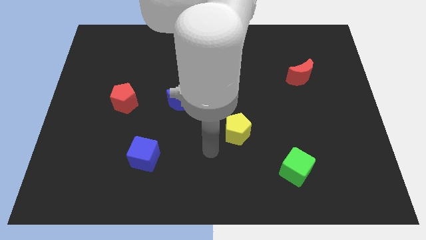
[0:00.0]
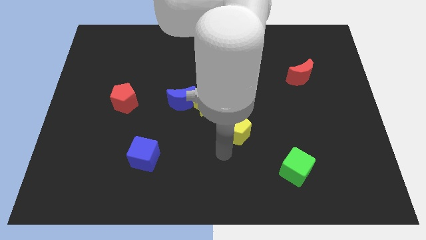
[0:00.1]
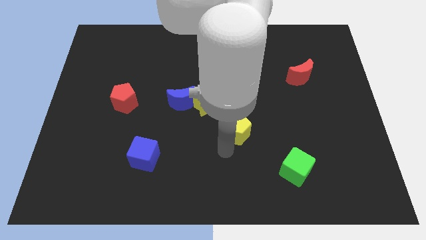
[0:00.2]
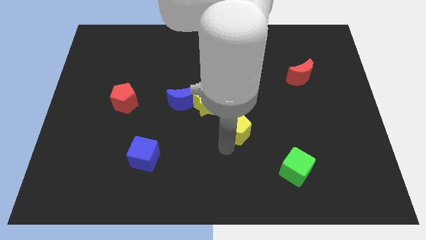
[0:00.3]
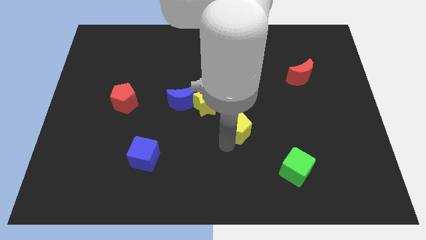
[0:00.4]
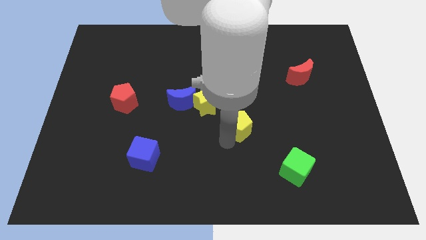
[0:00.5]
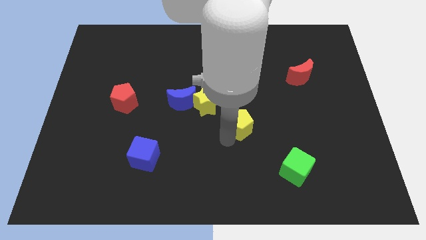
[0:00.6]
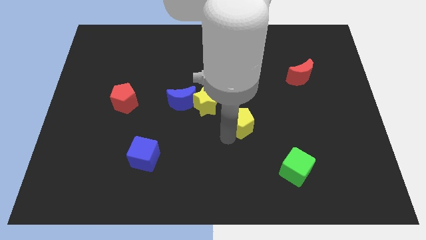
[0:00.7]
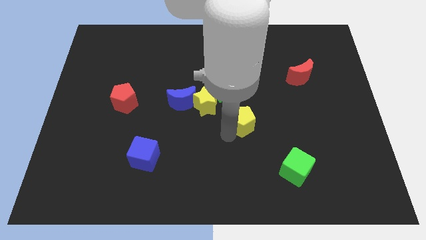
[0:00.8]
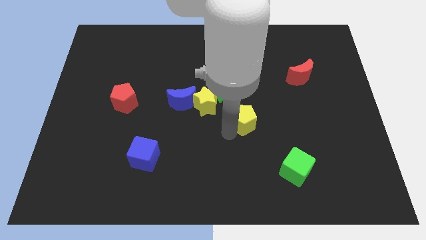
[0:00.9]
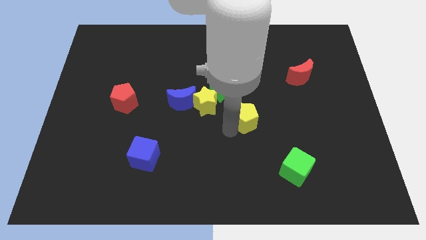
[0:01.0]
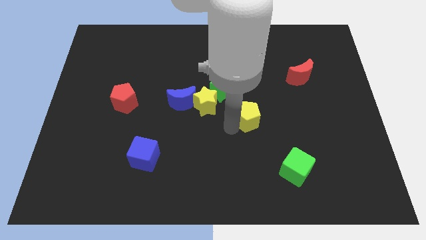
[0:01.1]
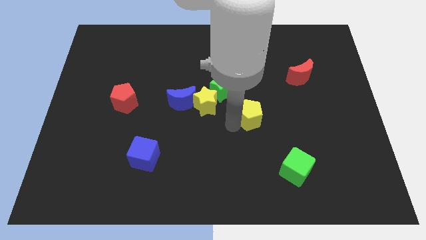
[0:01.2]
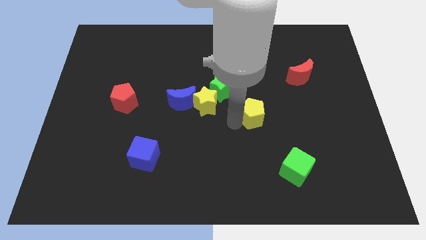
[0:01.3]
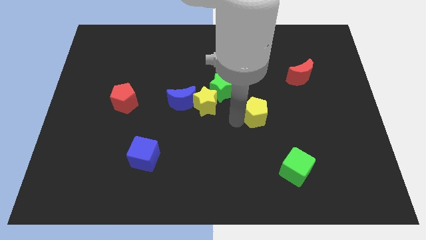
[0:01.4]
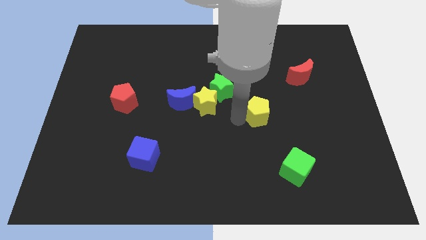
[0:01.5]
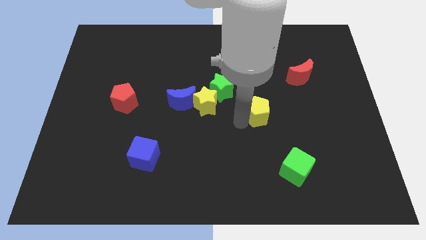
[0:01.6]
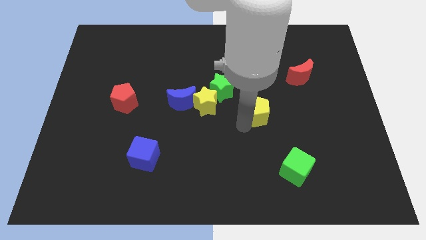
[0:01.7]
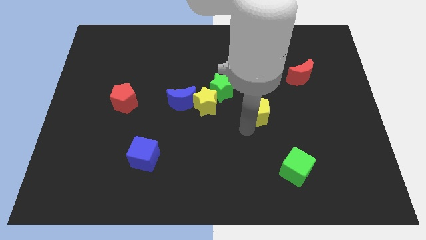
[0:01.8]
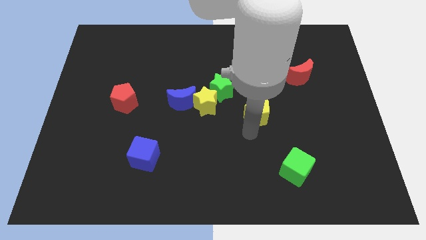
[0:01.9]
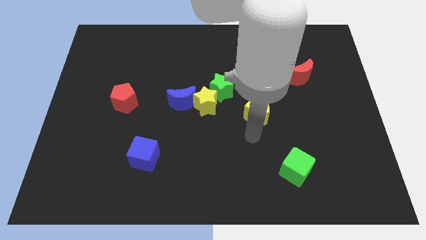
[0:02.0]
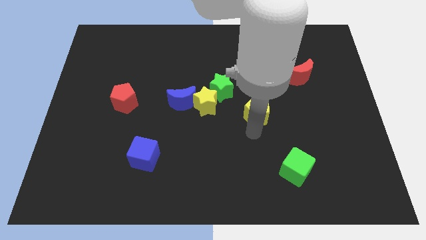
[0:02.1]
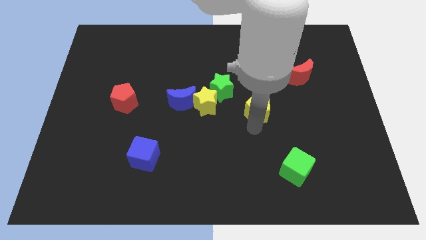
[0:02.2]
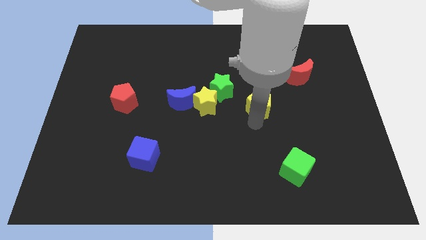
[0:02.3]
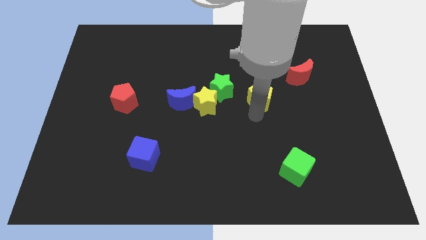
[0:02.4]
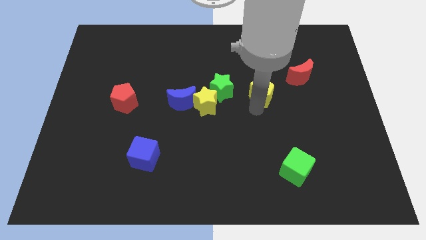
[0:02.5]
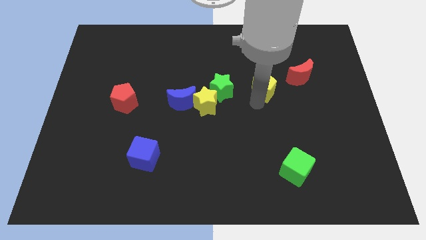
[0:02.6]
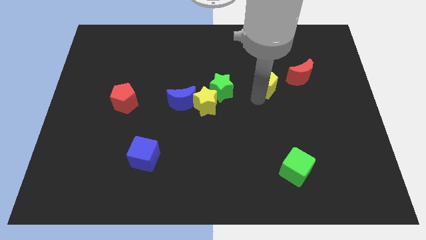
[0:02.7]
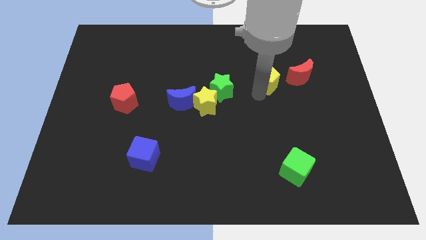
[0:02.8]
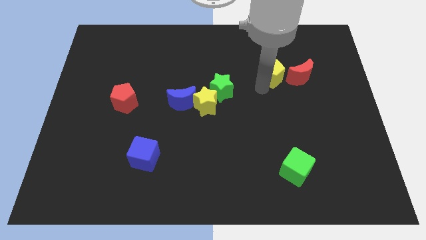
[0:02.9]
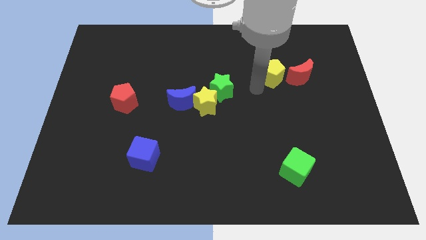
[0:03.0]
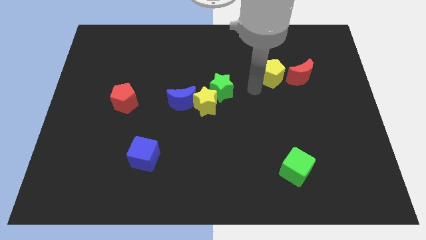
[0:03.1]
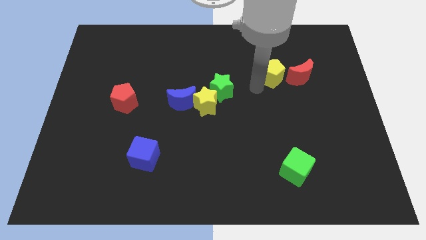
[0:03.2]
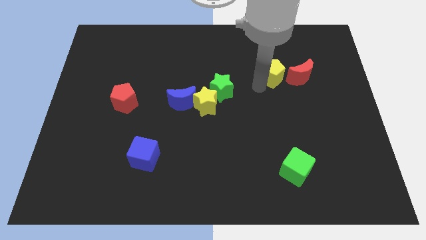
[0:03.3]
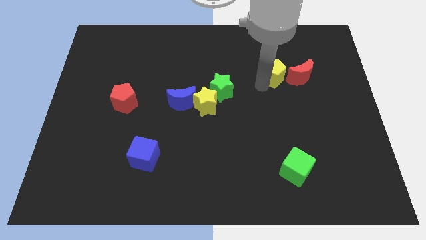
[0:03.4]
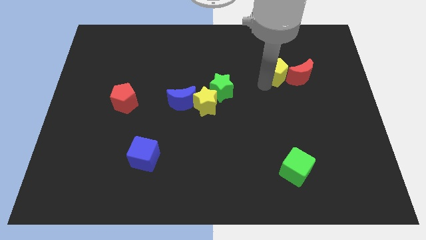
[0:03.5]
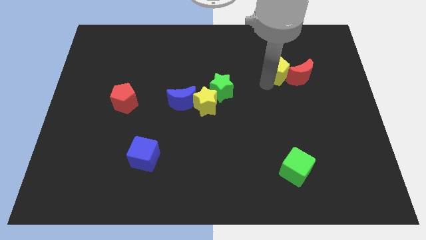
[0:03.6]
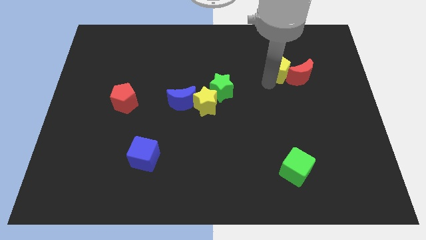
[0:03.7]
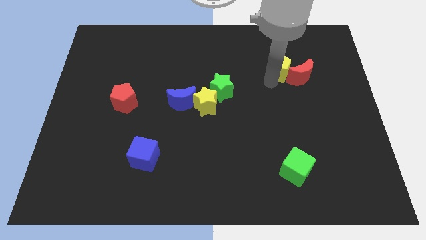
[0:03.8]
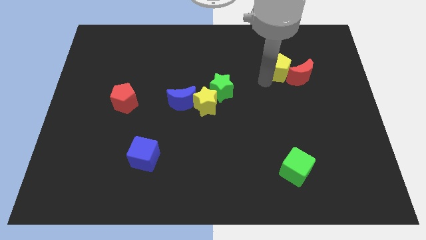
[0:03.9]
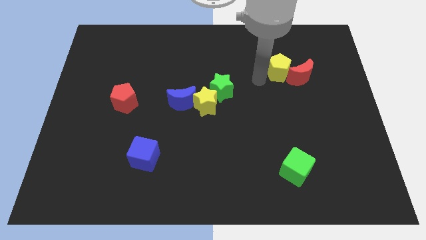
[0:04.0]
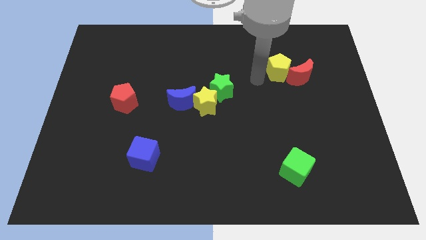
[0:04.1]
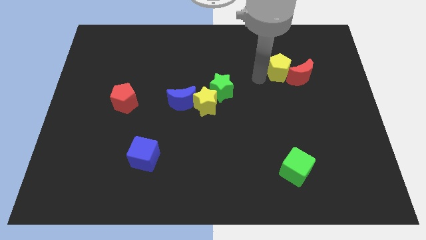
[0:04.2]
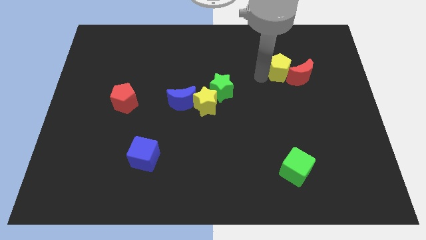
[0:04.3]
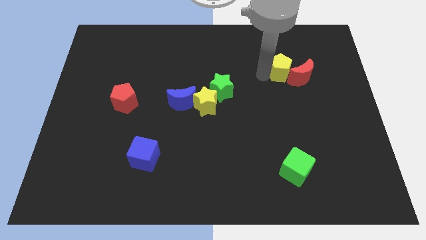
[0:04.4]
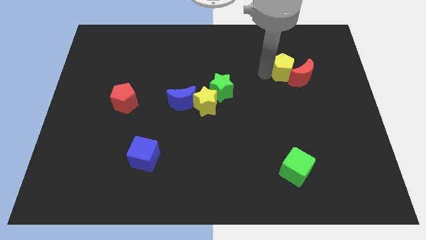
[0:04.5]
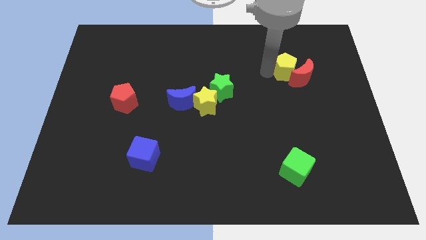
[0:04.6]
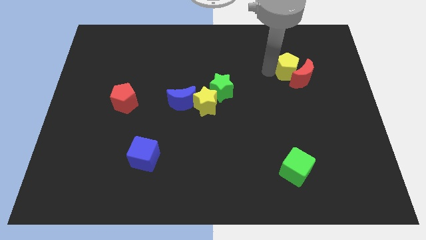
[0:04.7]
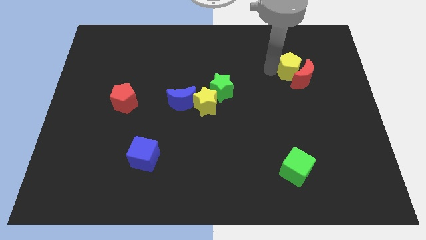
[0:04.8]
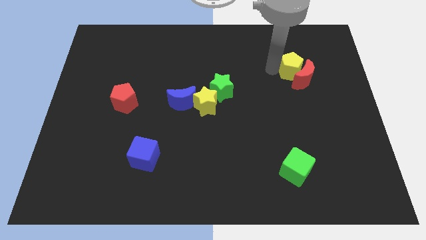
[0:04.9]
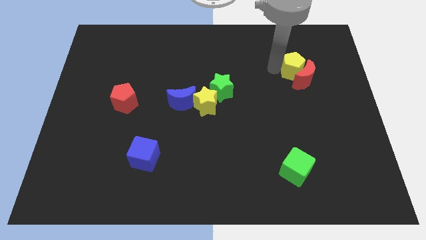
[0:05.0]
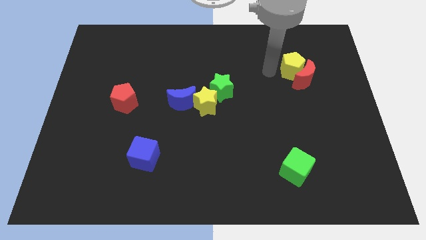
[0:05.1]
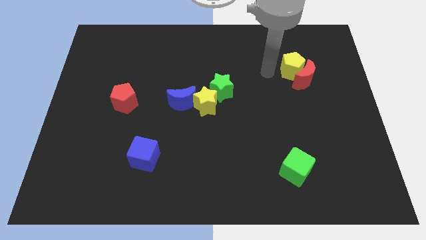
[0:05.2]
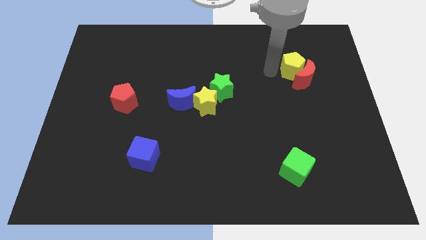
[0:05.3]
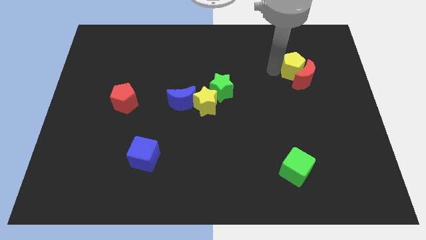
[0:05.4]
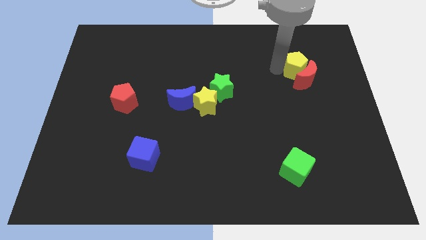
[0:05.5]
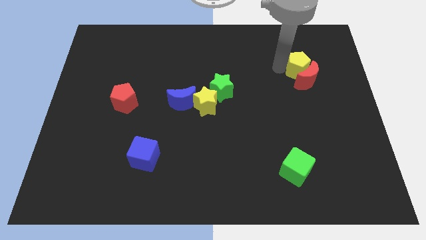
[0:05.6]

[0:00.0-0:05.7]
slide the yellow pentagon to the top right of the red moon
